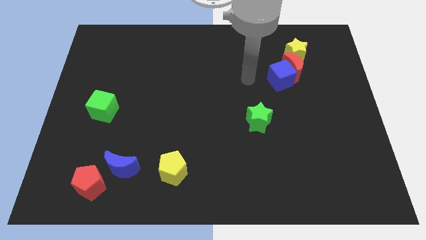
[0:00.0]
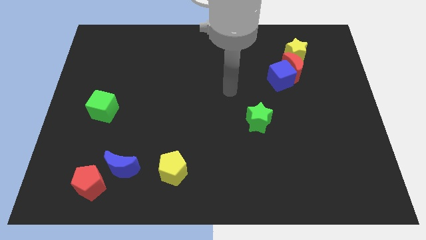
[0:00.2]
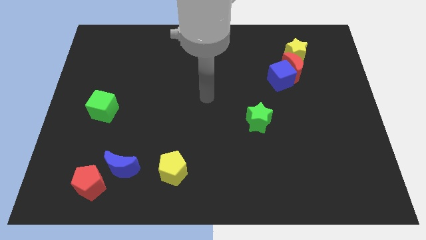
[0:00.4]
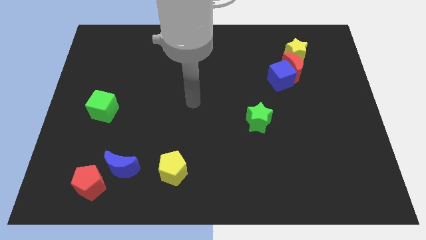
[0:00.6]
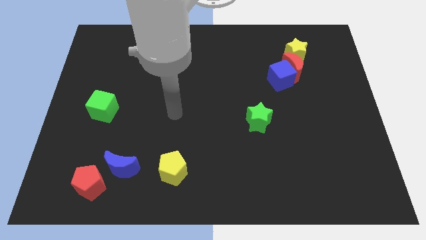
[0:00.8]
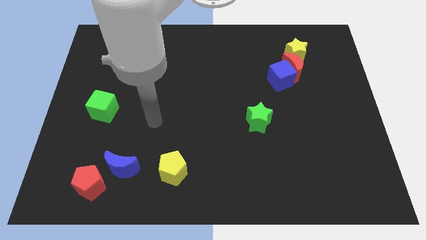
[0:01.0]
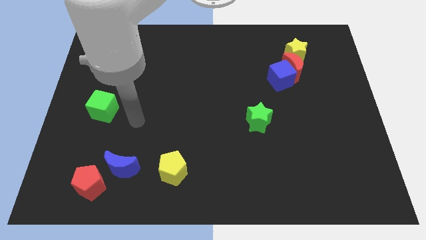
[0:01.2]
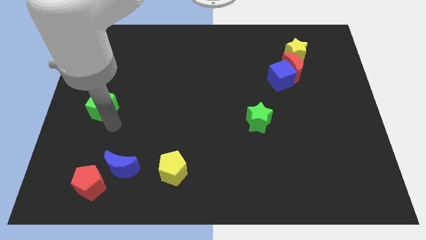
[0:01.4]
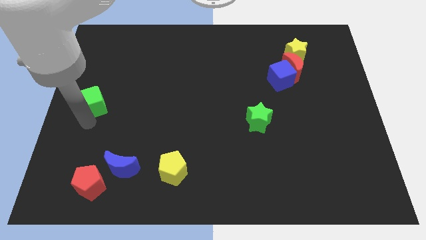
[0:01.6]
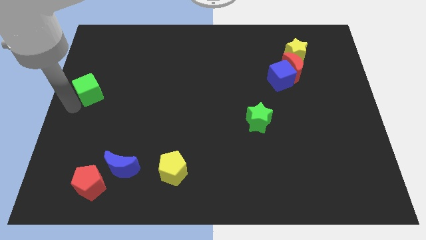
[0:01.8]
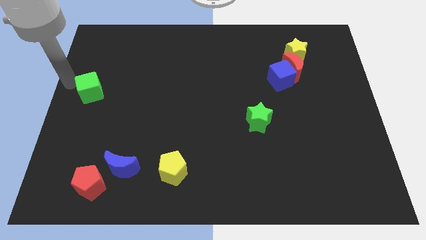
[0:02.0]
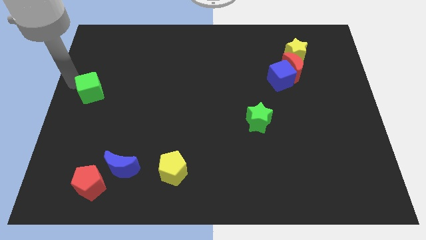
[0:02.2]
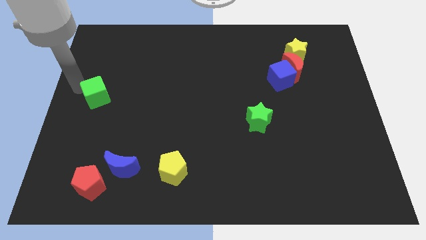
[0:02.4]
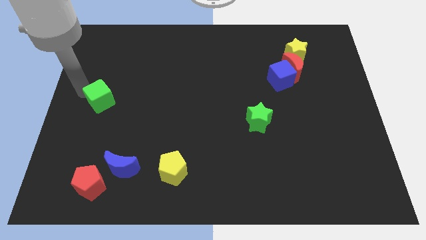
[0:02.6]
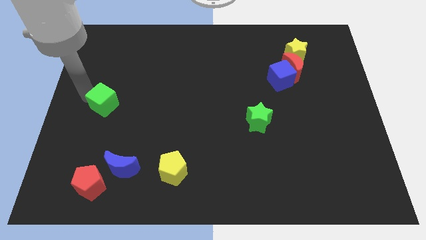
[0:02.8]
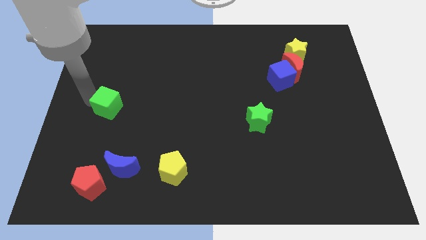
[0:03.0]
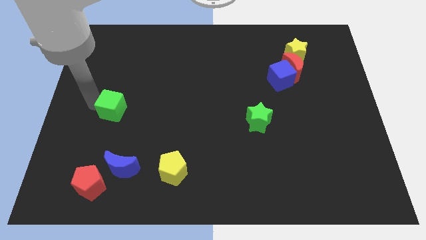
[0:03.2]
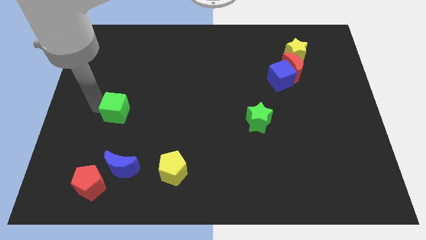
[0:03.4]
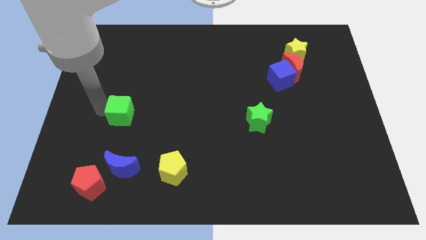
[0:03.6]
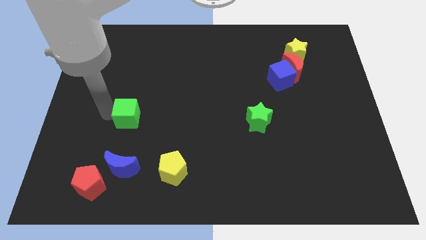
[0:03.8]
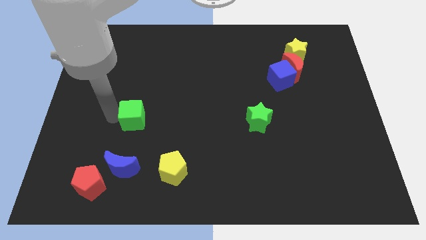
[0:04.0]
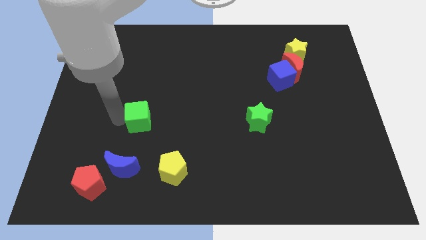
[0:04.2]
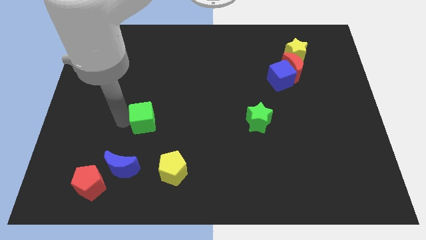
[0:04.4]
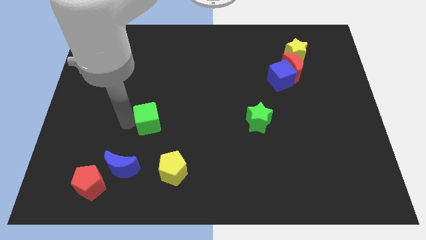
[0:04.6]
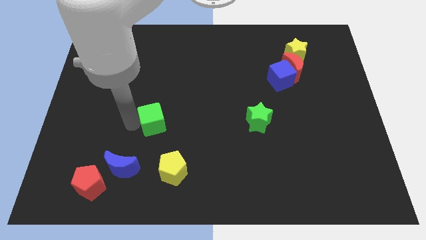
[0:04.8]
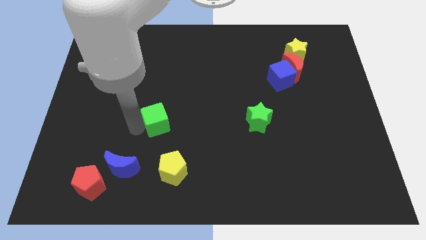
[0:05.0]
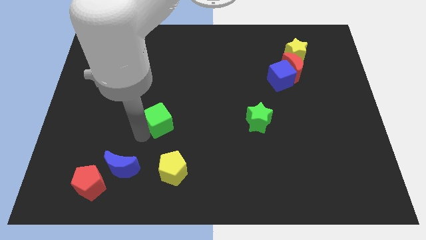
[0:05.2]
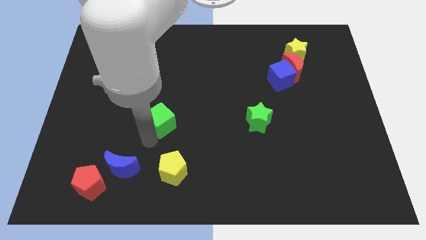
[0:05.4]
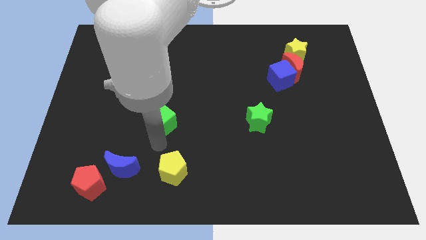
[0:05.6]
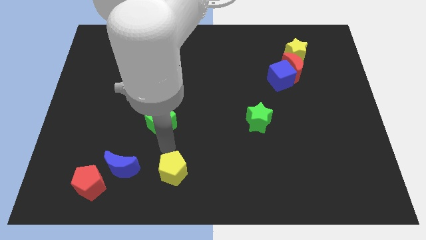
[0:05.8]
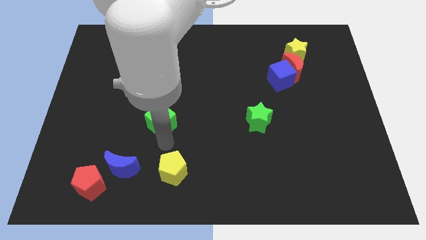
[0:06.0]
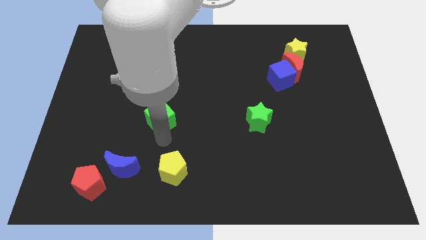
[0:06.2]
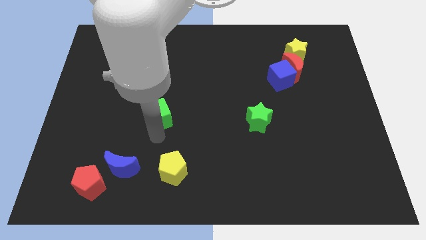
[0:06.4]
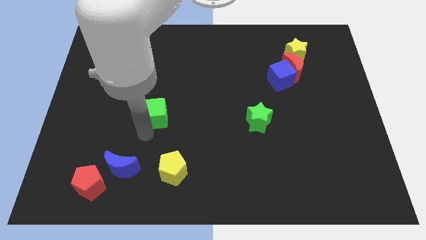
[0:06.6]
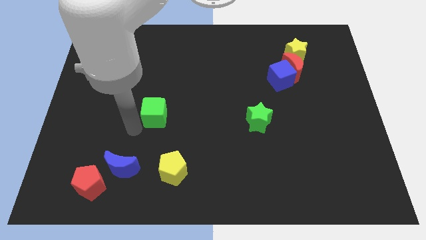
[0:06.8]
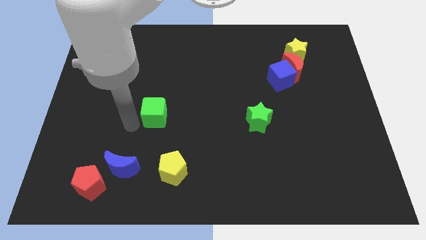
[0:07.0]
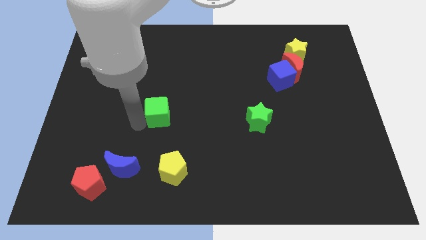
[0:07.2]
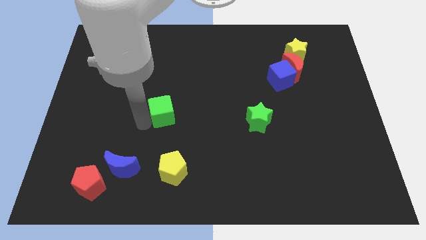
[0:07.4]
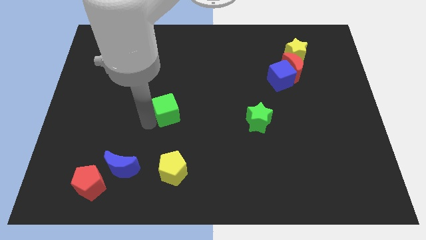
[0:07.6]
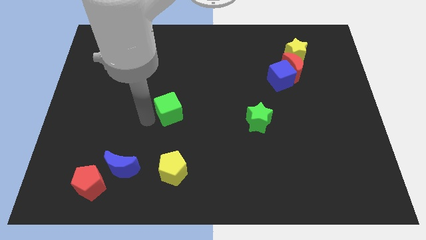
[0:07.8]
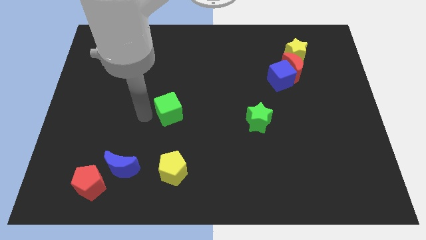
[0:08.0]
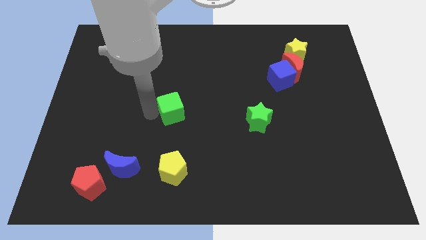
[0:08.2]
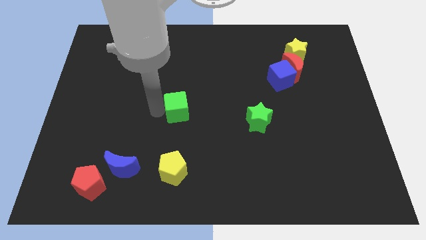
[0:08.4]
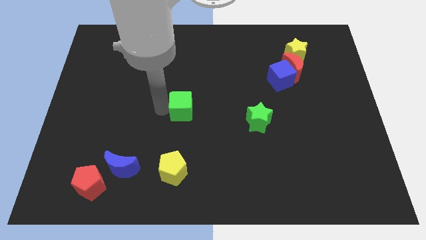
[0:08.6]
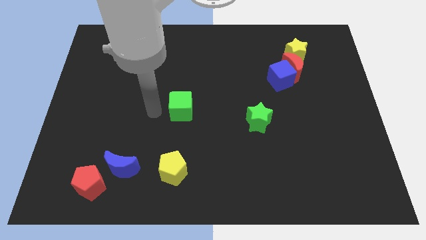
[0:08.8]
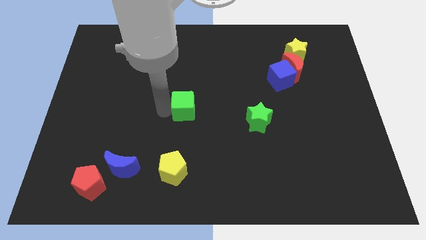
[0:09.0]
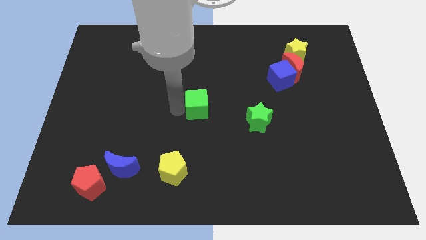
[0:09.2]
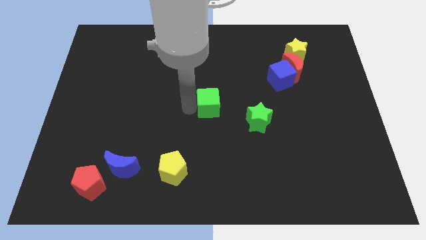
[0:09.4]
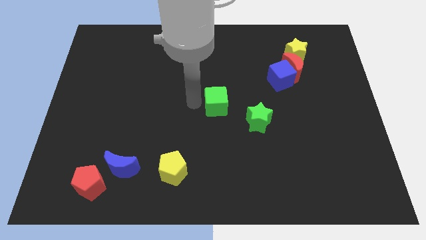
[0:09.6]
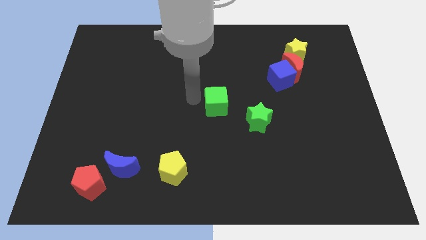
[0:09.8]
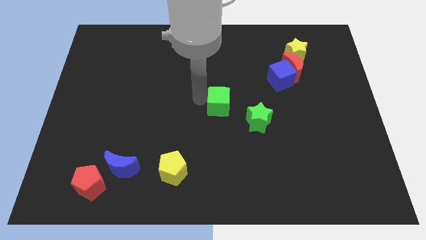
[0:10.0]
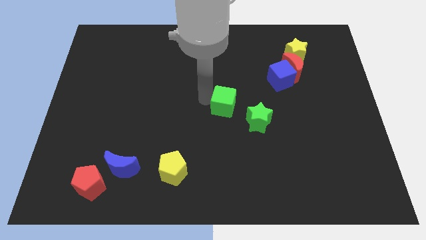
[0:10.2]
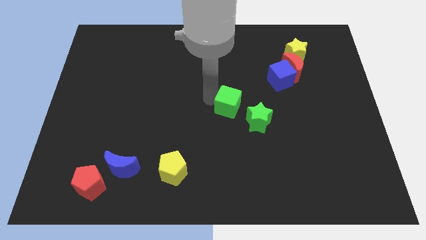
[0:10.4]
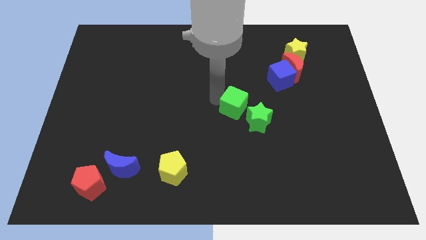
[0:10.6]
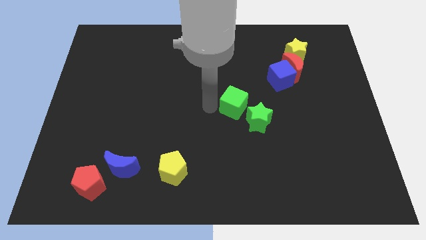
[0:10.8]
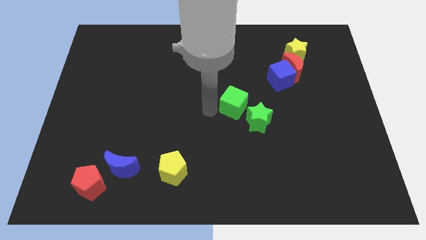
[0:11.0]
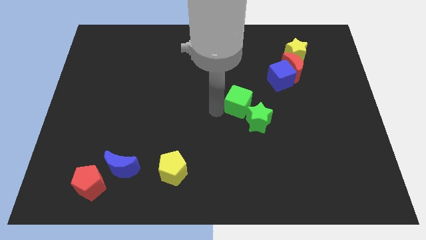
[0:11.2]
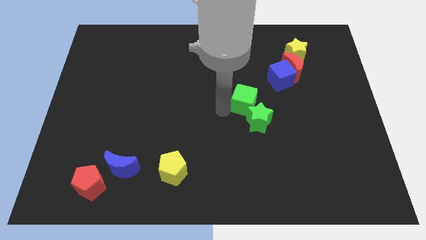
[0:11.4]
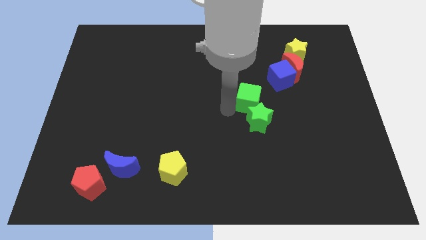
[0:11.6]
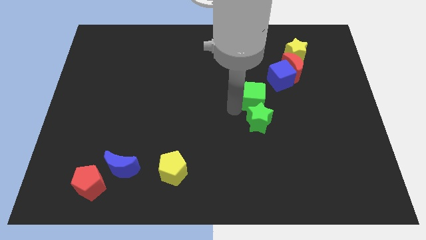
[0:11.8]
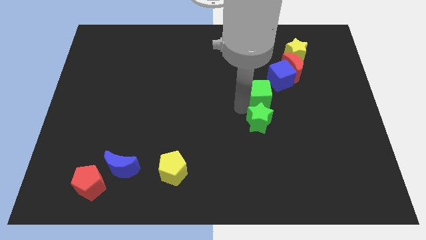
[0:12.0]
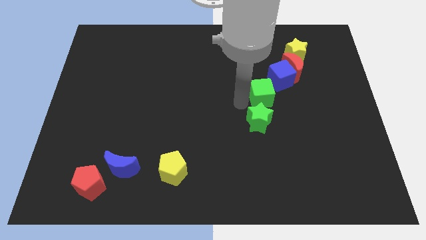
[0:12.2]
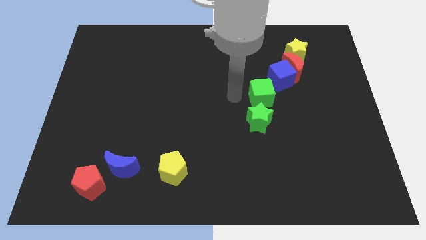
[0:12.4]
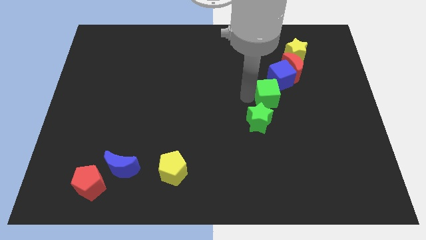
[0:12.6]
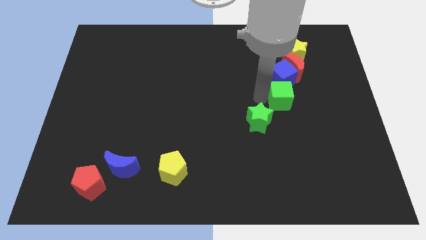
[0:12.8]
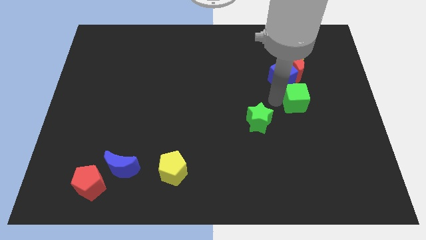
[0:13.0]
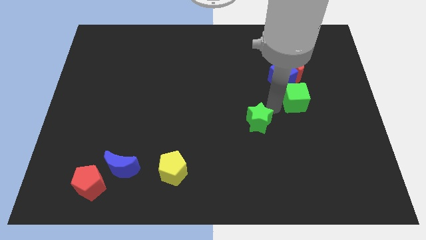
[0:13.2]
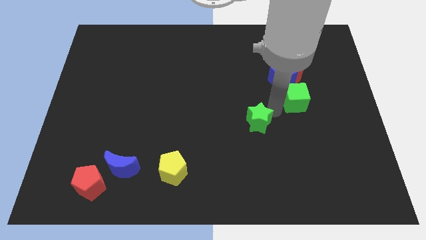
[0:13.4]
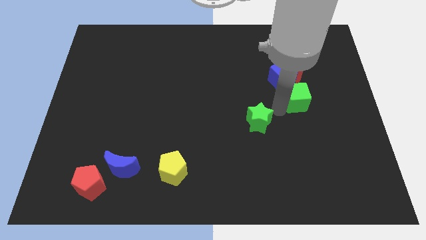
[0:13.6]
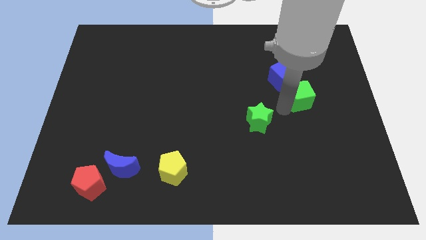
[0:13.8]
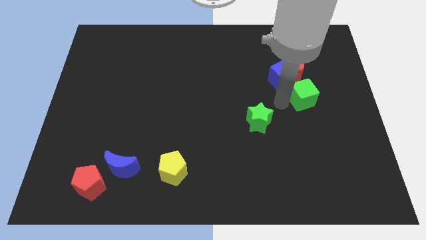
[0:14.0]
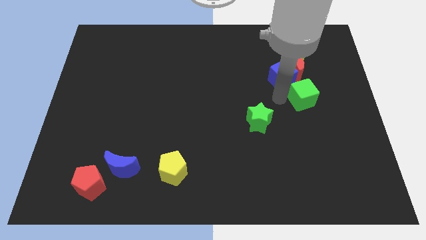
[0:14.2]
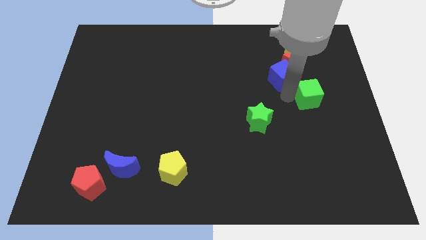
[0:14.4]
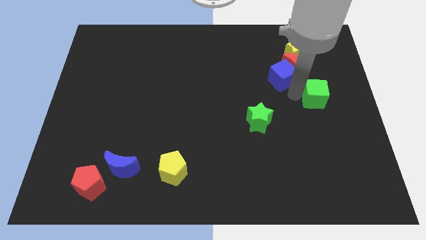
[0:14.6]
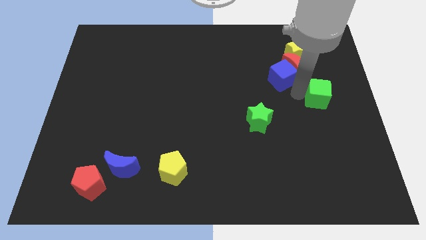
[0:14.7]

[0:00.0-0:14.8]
move the green cube to the right side
